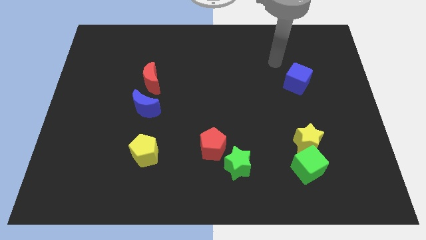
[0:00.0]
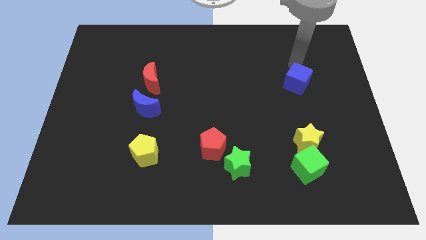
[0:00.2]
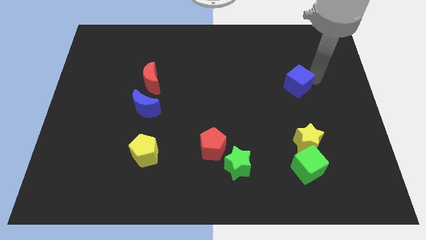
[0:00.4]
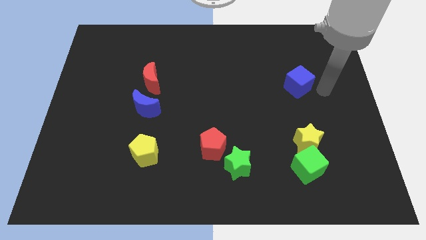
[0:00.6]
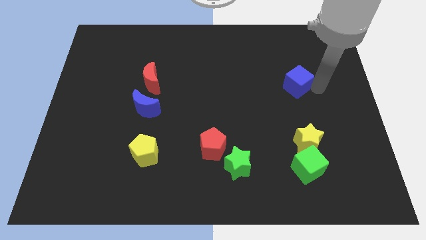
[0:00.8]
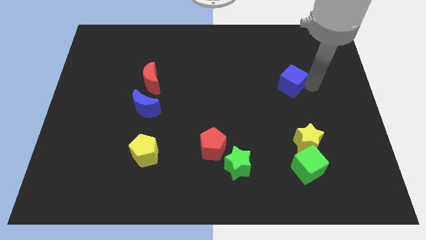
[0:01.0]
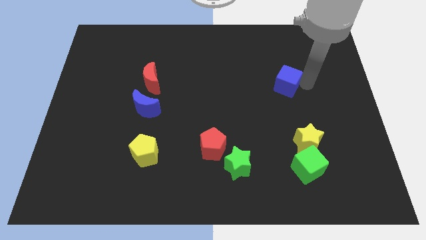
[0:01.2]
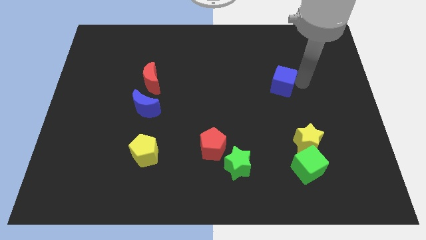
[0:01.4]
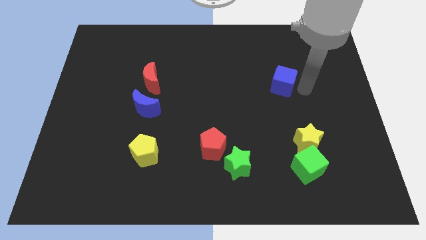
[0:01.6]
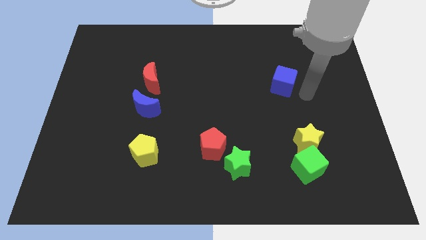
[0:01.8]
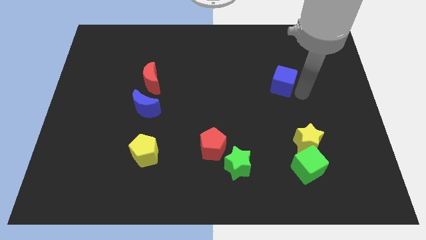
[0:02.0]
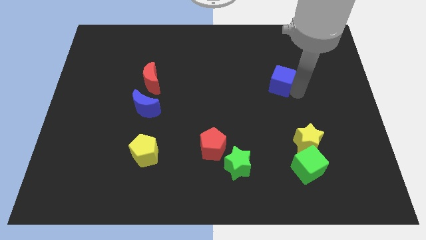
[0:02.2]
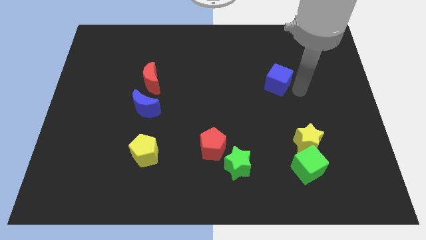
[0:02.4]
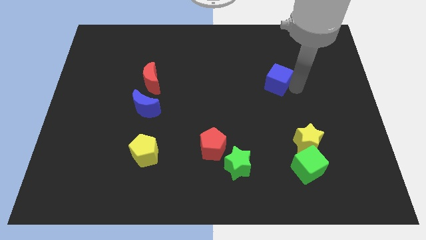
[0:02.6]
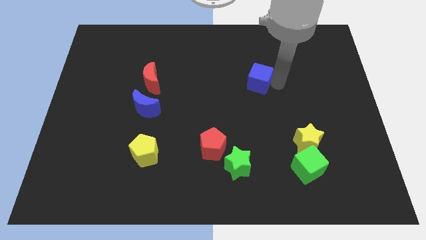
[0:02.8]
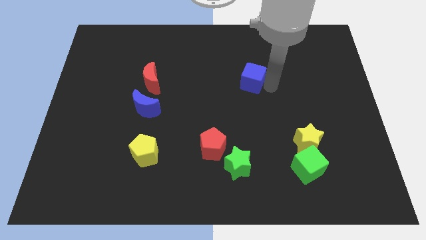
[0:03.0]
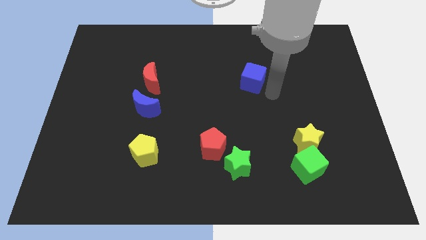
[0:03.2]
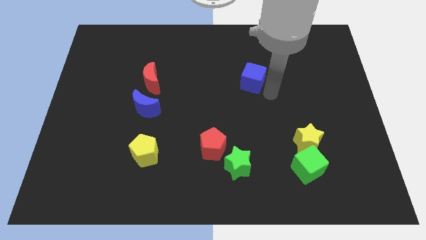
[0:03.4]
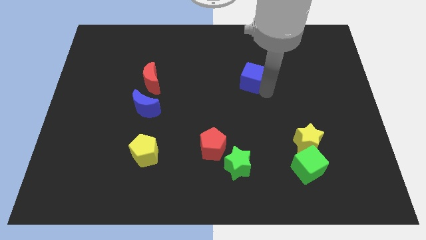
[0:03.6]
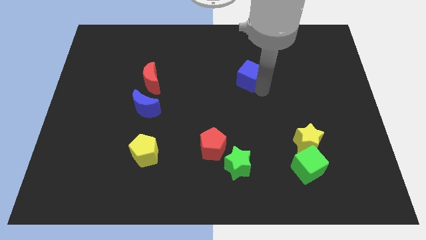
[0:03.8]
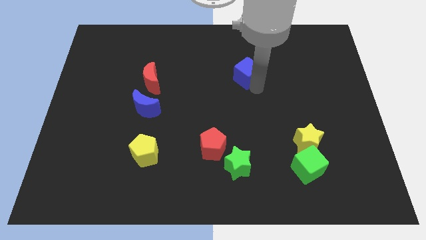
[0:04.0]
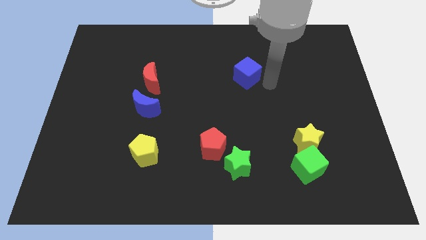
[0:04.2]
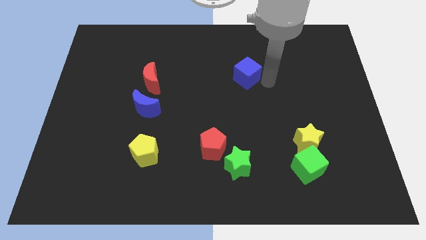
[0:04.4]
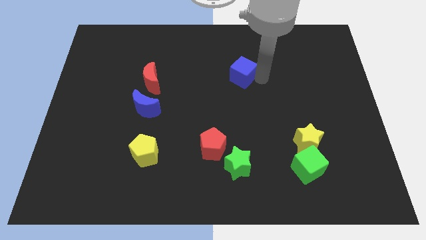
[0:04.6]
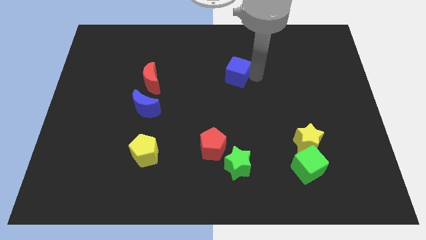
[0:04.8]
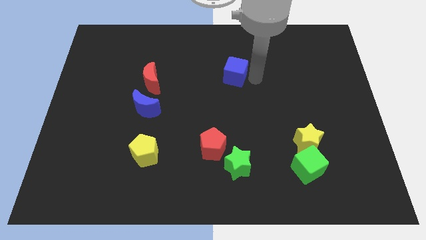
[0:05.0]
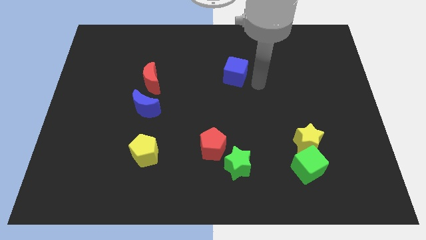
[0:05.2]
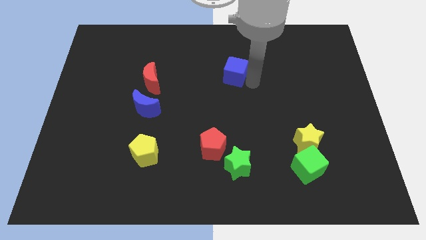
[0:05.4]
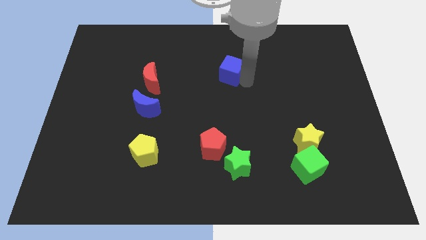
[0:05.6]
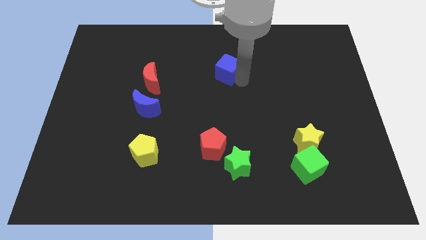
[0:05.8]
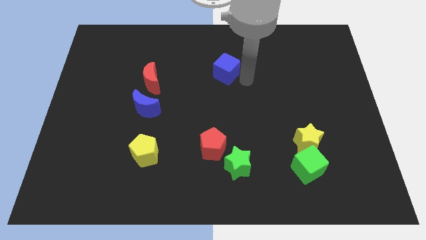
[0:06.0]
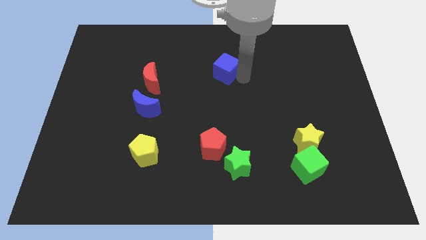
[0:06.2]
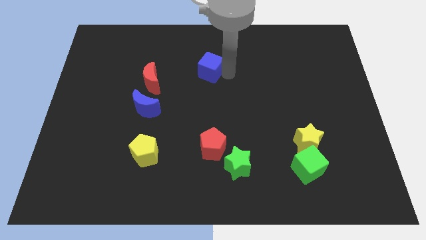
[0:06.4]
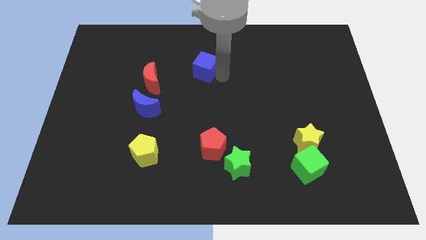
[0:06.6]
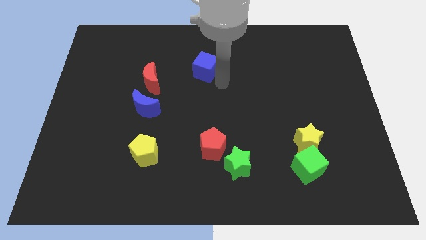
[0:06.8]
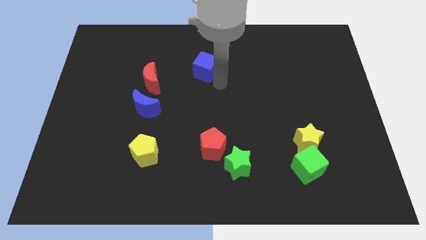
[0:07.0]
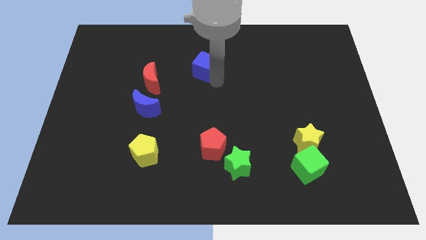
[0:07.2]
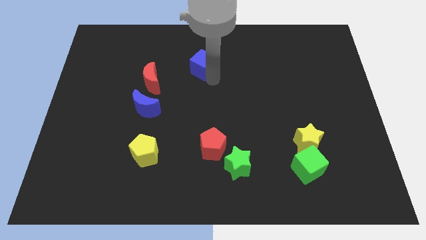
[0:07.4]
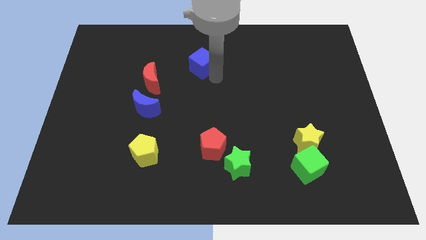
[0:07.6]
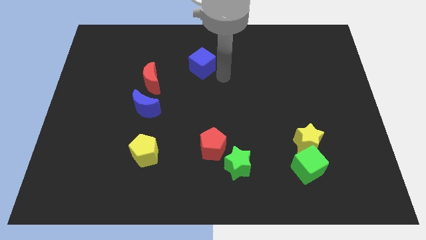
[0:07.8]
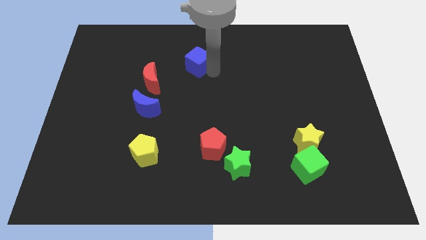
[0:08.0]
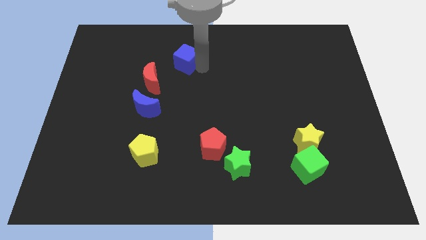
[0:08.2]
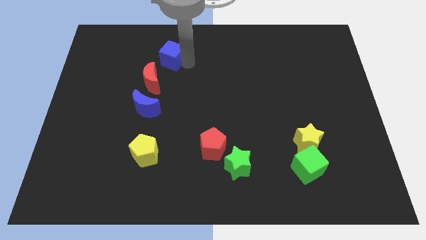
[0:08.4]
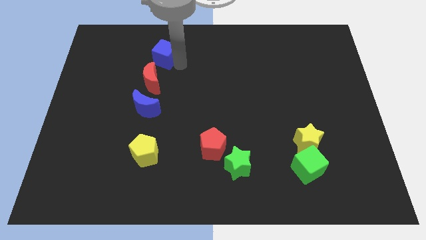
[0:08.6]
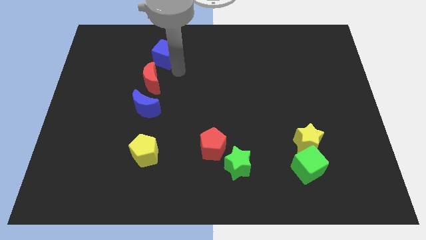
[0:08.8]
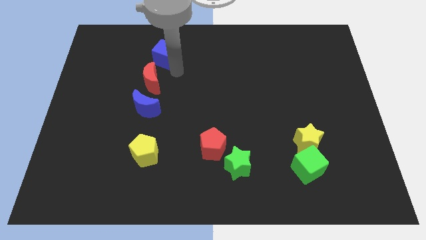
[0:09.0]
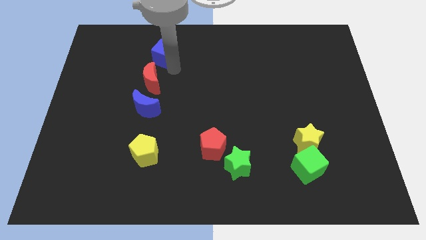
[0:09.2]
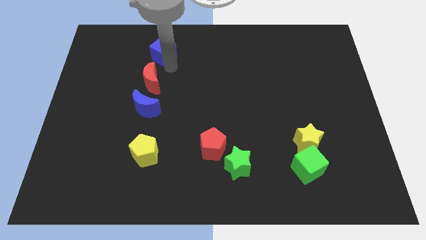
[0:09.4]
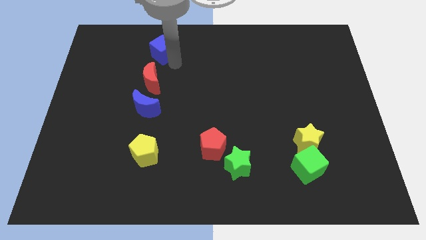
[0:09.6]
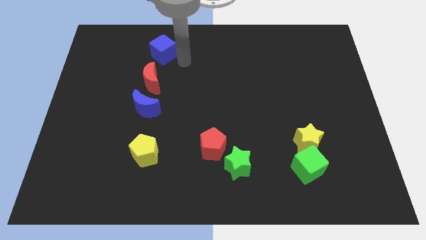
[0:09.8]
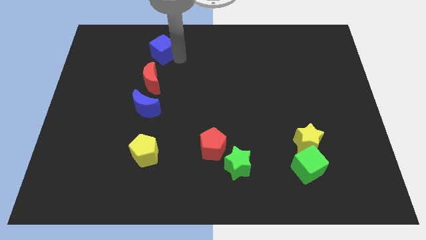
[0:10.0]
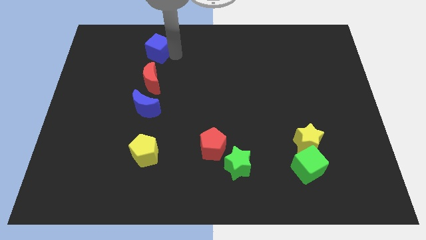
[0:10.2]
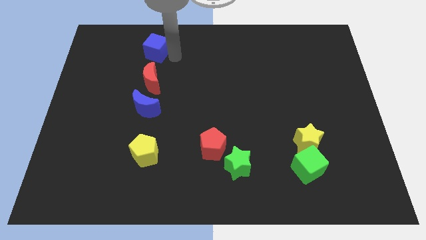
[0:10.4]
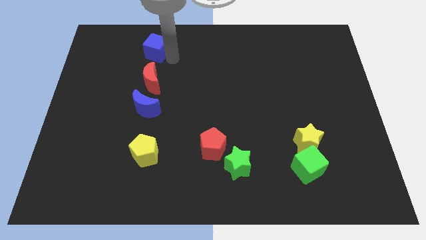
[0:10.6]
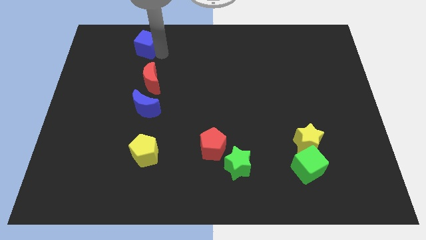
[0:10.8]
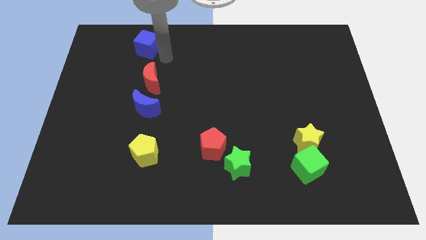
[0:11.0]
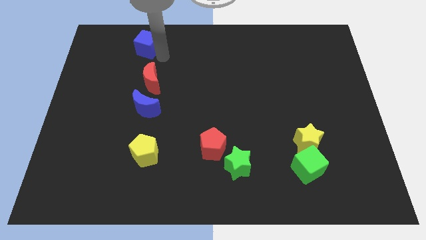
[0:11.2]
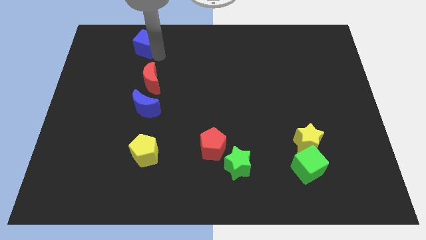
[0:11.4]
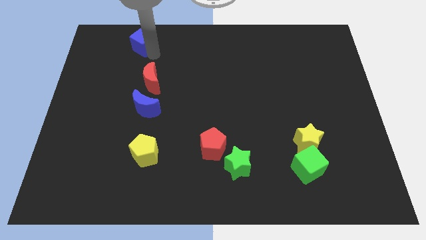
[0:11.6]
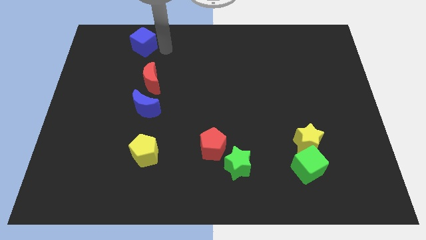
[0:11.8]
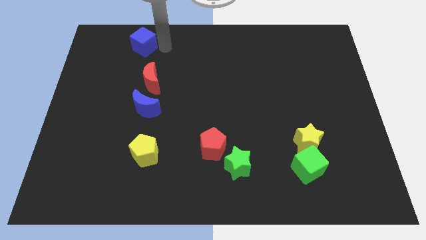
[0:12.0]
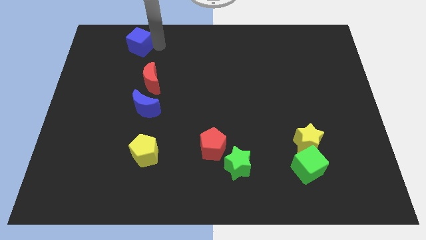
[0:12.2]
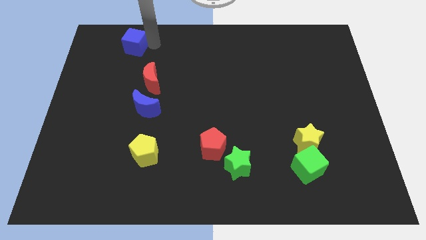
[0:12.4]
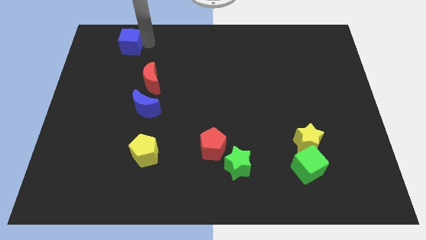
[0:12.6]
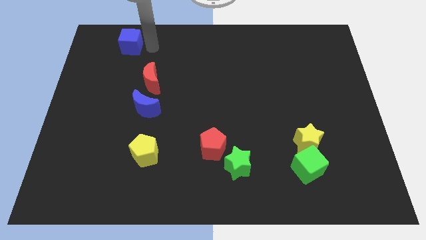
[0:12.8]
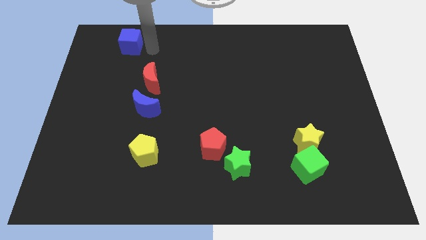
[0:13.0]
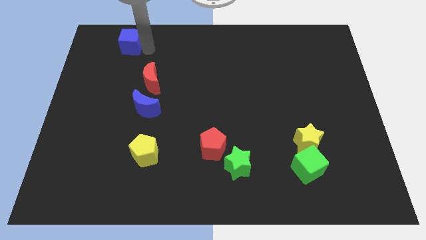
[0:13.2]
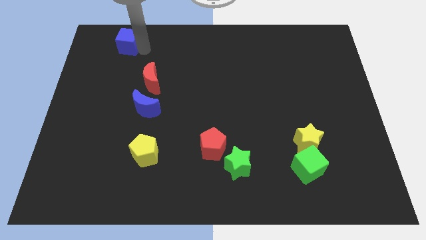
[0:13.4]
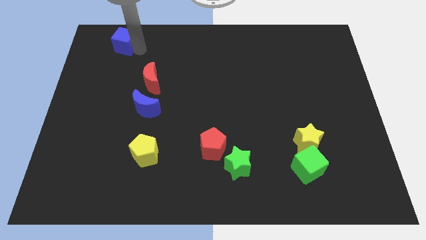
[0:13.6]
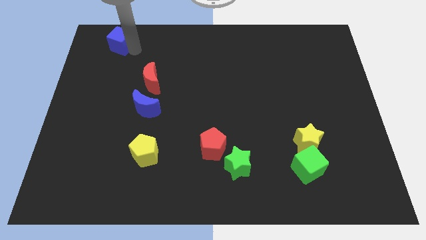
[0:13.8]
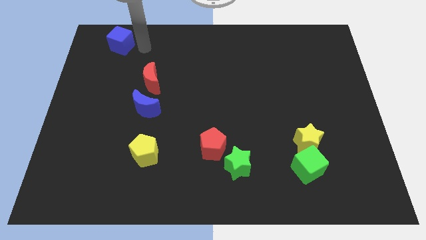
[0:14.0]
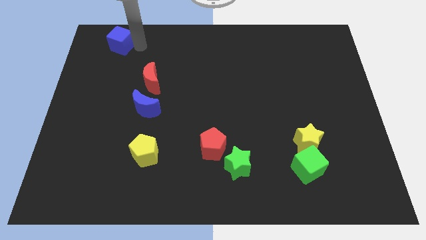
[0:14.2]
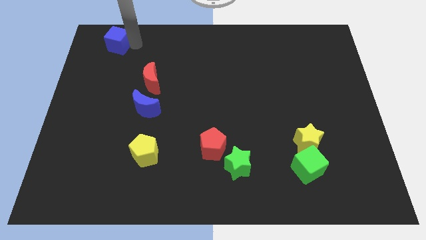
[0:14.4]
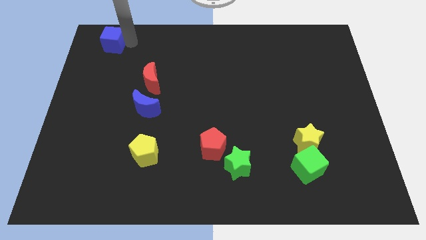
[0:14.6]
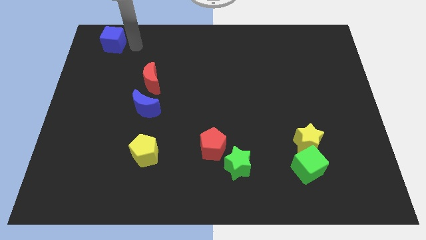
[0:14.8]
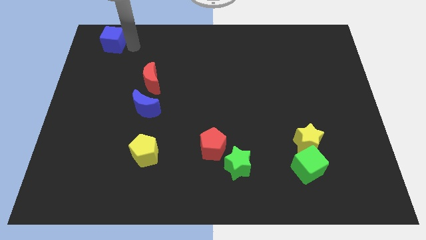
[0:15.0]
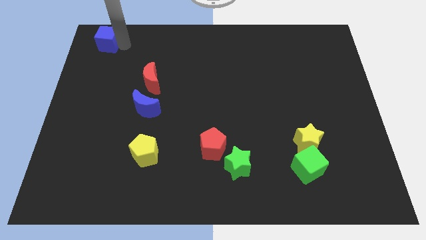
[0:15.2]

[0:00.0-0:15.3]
push the blue cube to the upper left corner

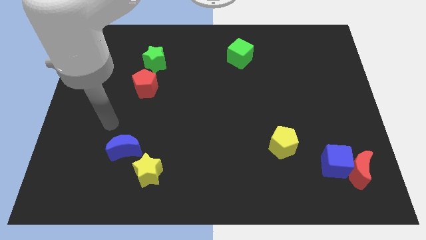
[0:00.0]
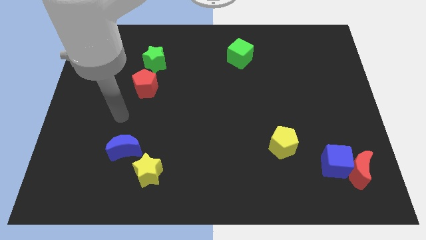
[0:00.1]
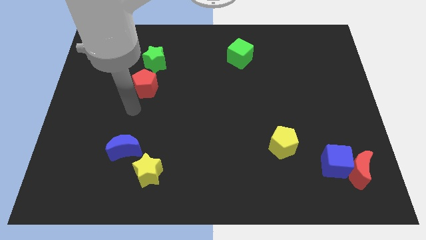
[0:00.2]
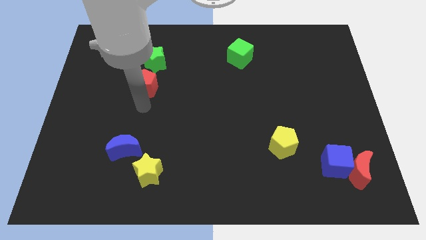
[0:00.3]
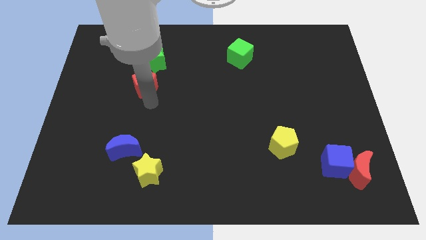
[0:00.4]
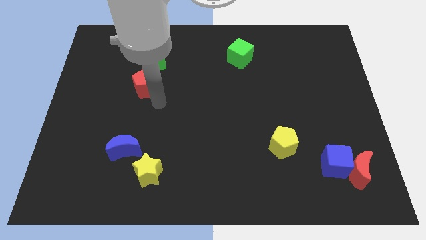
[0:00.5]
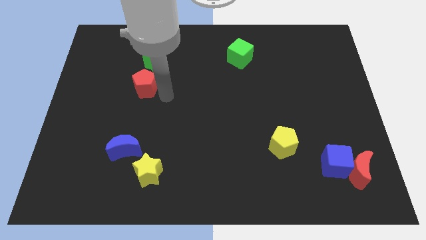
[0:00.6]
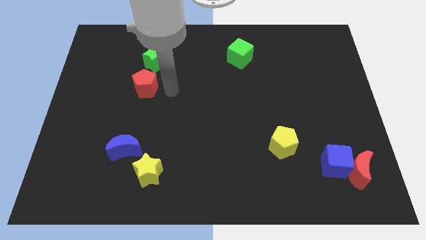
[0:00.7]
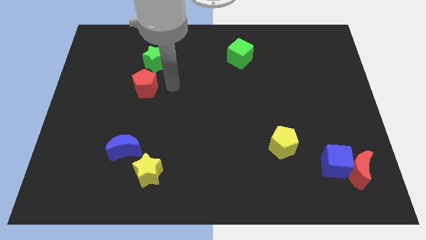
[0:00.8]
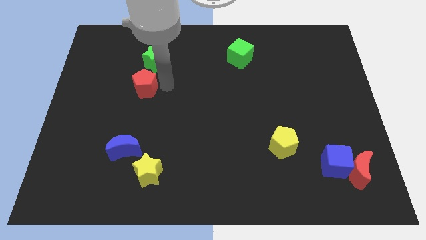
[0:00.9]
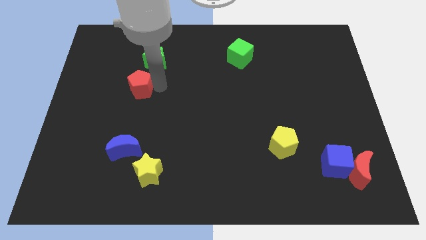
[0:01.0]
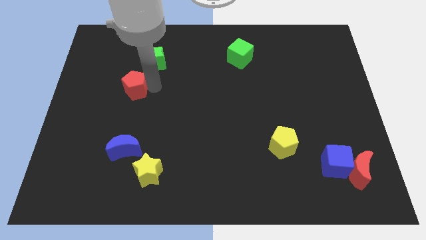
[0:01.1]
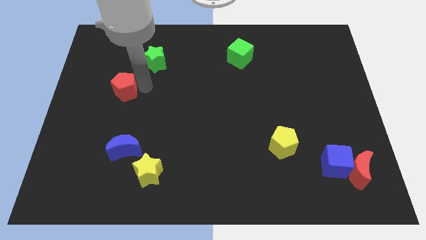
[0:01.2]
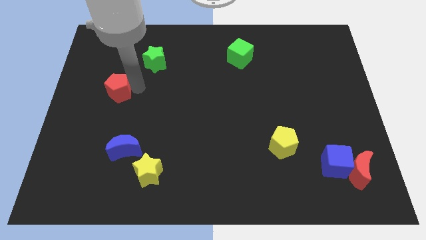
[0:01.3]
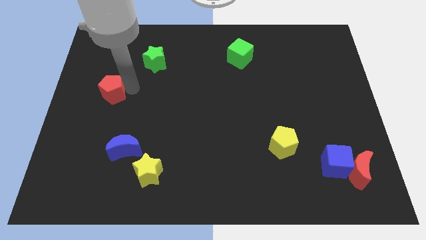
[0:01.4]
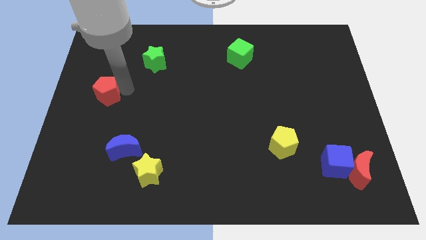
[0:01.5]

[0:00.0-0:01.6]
slide the red pentagon to the center left
